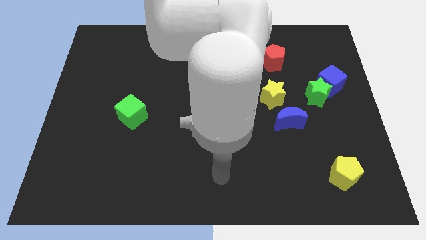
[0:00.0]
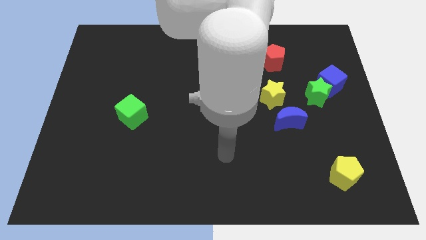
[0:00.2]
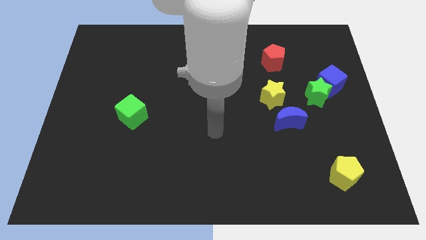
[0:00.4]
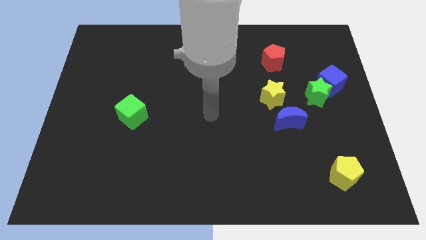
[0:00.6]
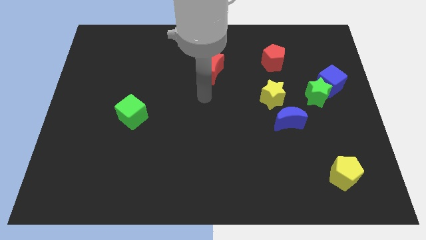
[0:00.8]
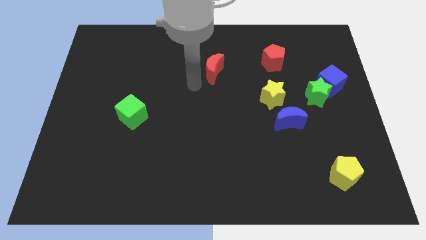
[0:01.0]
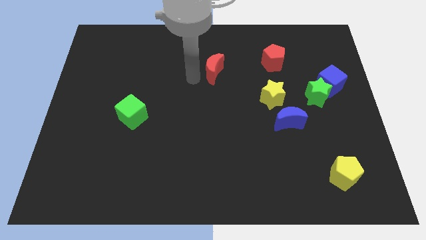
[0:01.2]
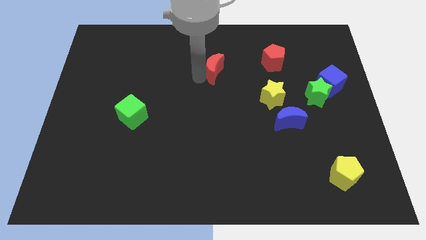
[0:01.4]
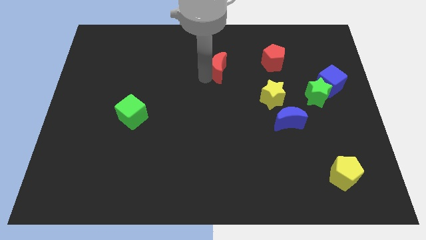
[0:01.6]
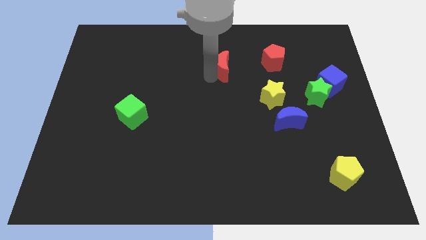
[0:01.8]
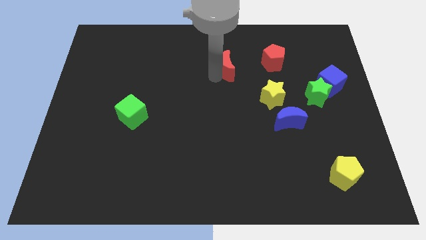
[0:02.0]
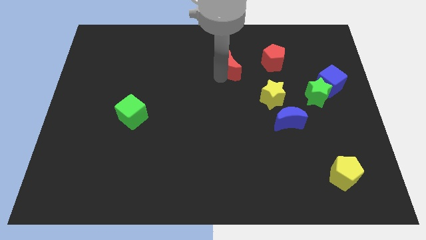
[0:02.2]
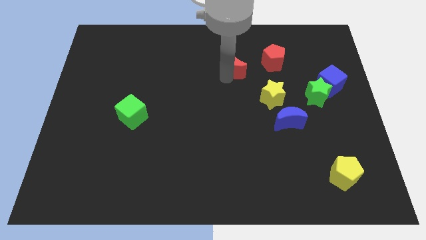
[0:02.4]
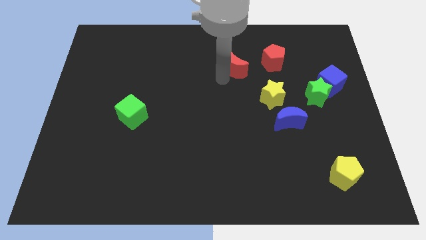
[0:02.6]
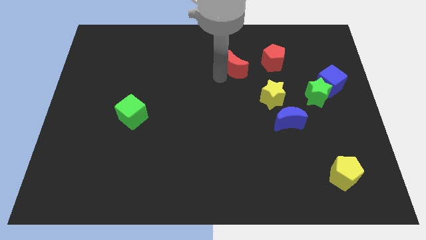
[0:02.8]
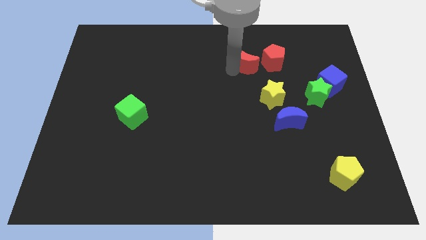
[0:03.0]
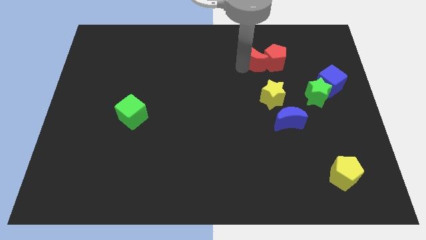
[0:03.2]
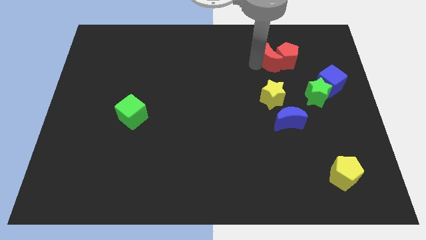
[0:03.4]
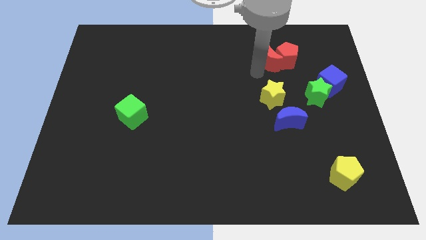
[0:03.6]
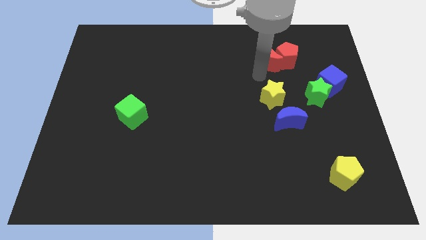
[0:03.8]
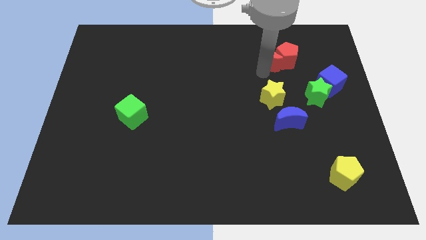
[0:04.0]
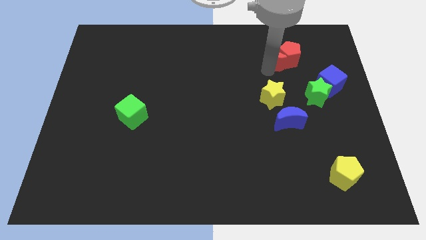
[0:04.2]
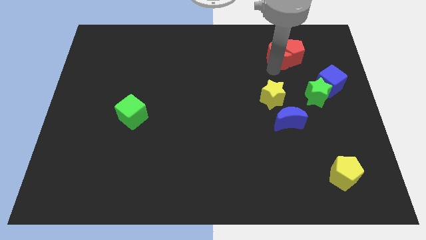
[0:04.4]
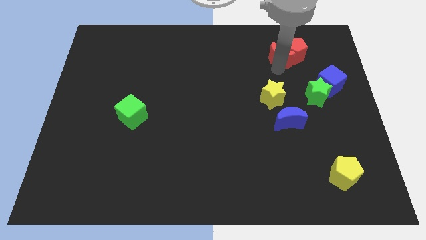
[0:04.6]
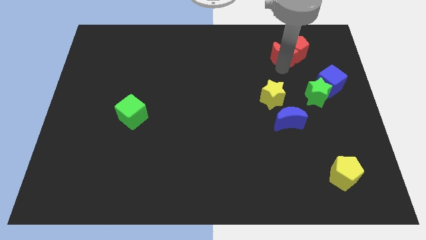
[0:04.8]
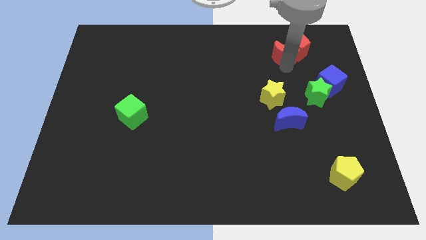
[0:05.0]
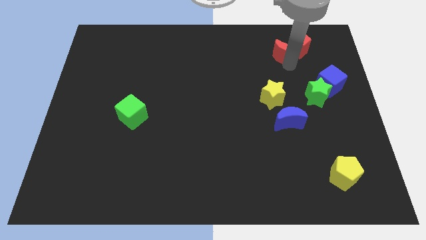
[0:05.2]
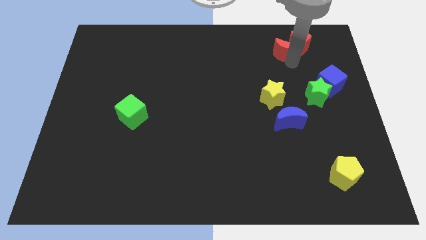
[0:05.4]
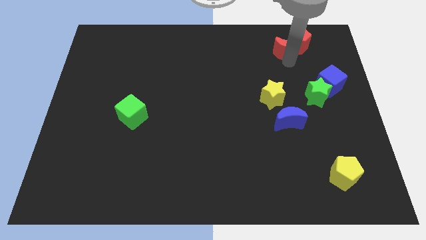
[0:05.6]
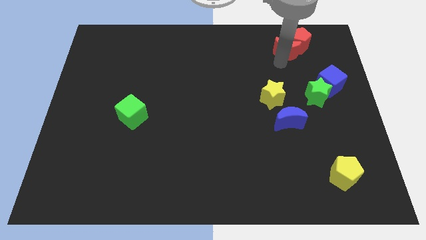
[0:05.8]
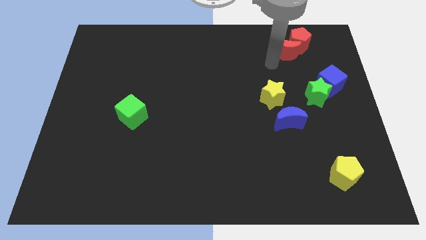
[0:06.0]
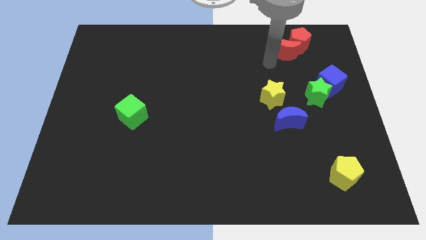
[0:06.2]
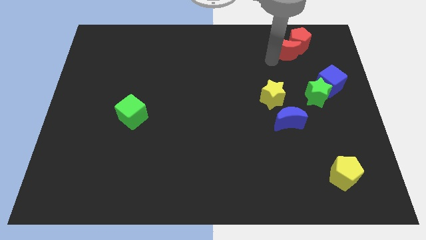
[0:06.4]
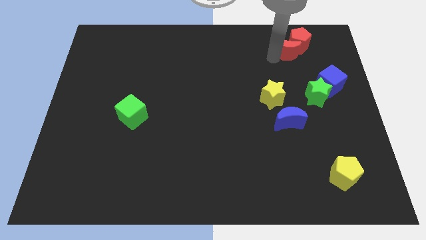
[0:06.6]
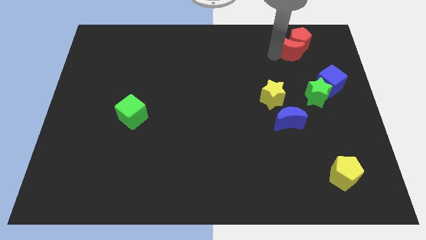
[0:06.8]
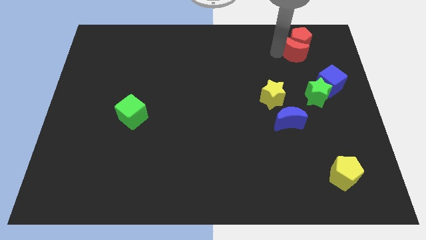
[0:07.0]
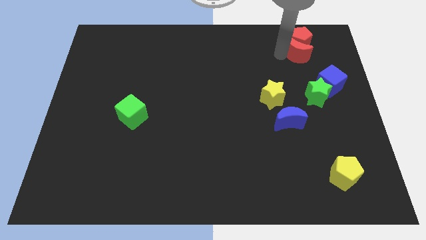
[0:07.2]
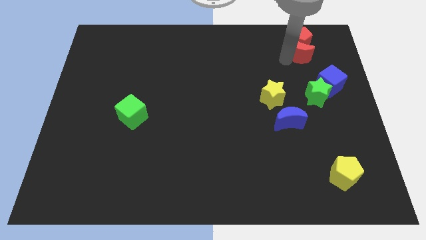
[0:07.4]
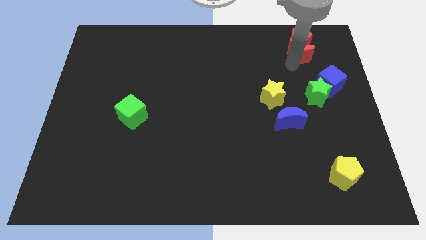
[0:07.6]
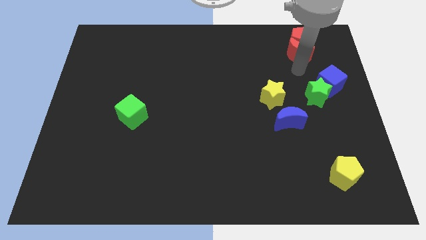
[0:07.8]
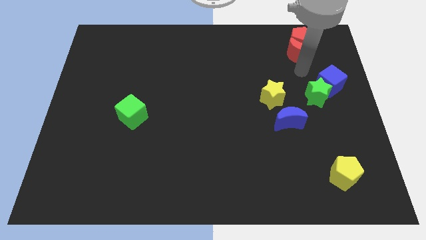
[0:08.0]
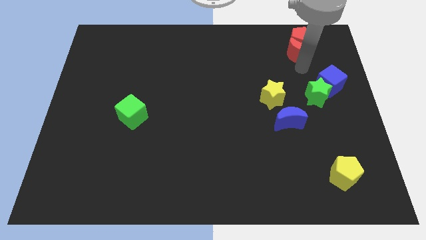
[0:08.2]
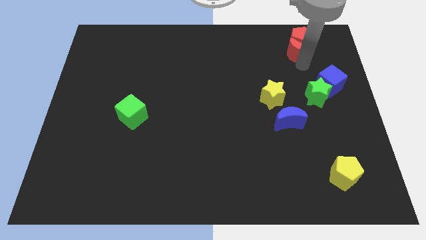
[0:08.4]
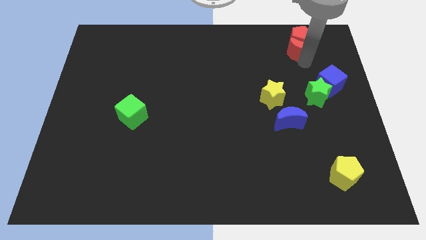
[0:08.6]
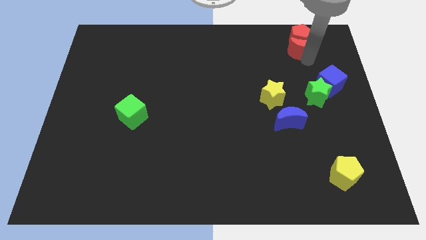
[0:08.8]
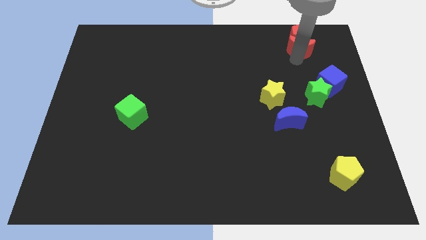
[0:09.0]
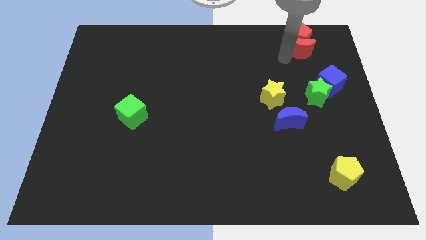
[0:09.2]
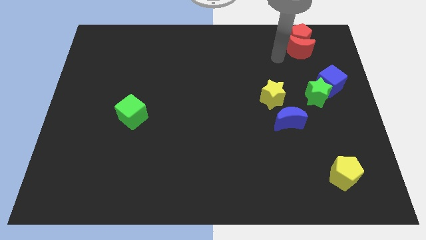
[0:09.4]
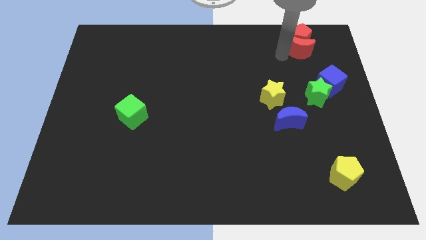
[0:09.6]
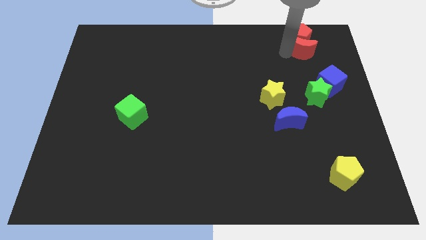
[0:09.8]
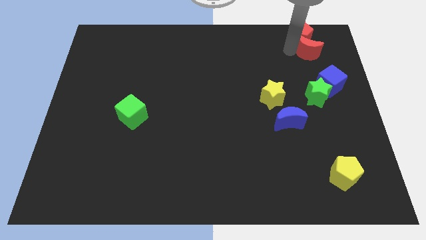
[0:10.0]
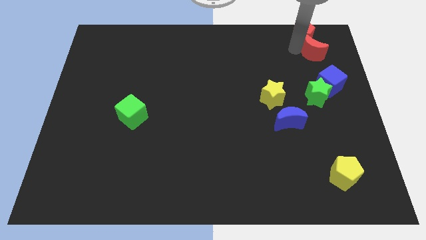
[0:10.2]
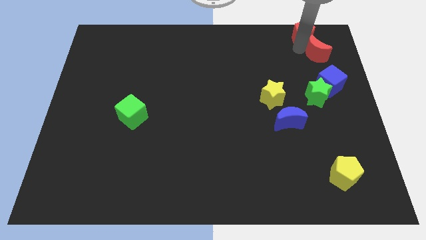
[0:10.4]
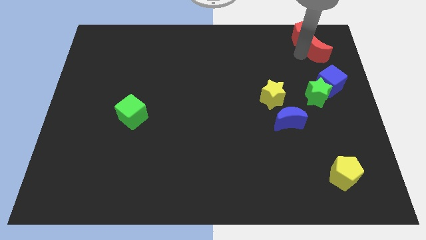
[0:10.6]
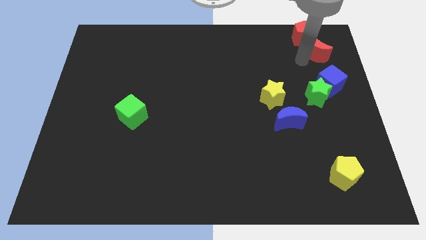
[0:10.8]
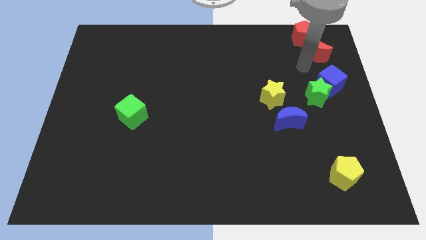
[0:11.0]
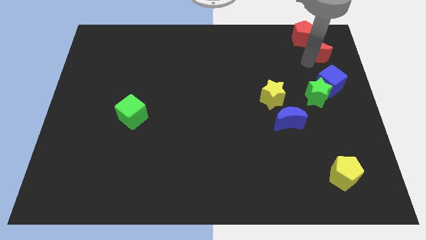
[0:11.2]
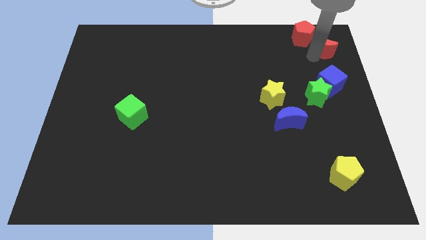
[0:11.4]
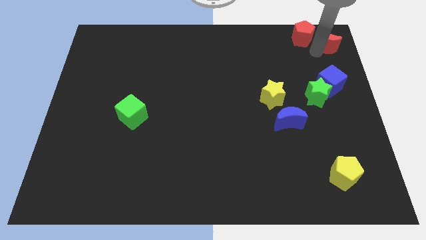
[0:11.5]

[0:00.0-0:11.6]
push the red moon to the top right of the board

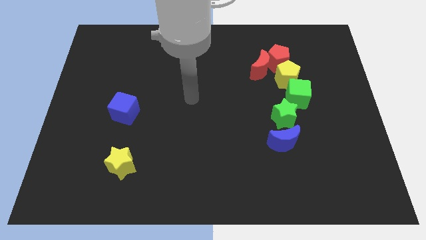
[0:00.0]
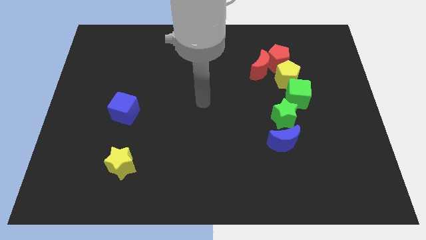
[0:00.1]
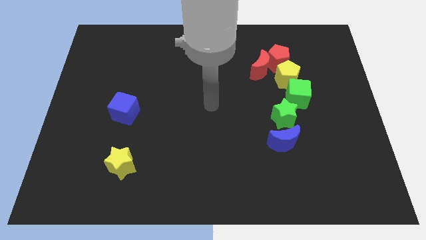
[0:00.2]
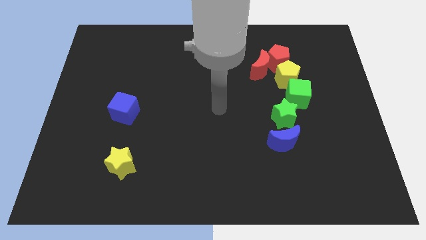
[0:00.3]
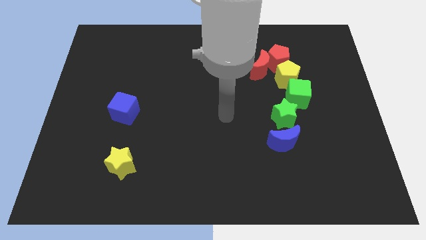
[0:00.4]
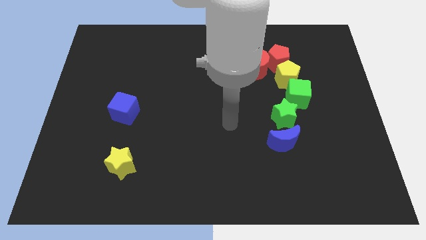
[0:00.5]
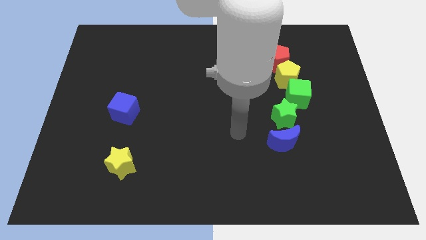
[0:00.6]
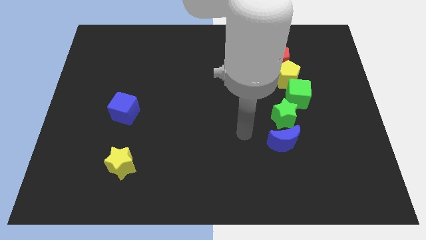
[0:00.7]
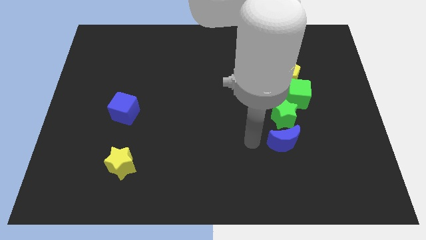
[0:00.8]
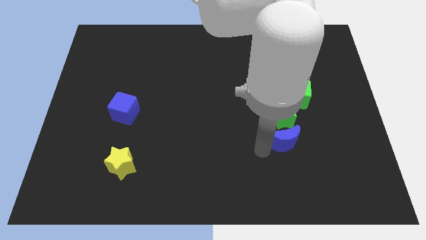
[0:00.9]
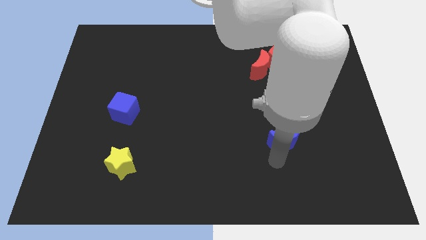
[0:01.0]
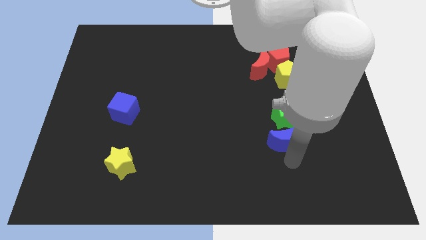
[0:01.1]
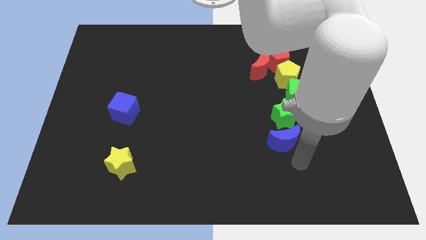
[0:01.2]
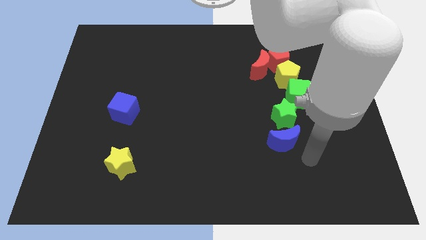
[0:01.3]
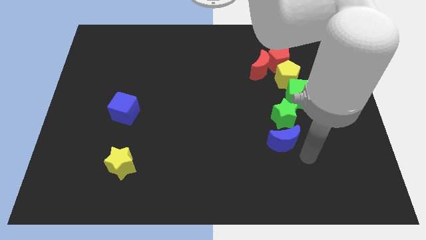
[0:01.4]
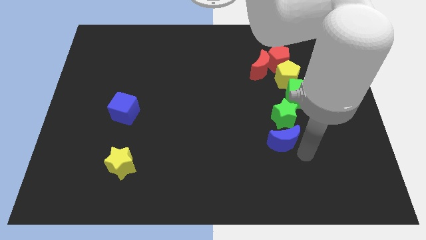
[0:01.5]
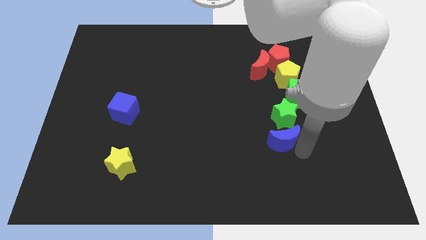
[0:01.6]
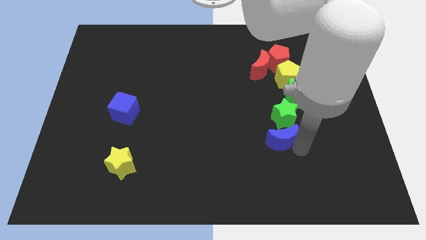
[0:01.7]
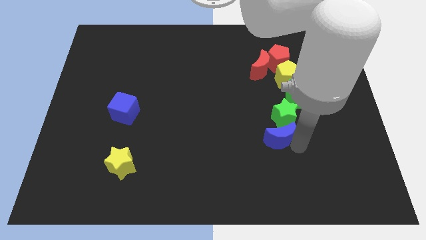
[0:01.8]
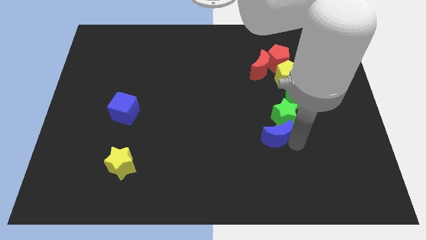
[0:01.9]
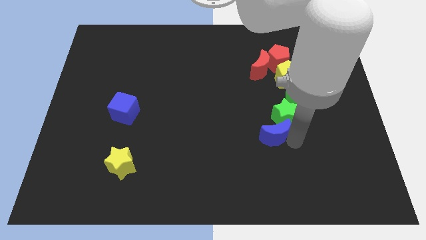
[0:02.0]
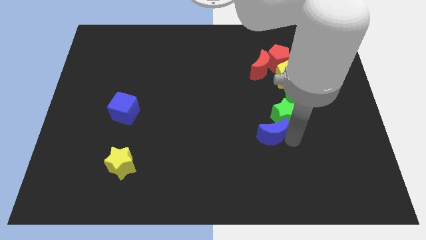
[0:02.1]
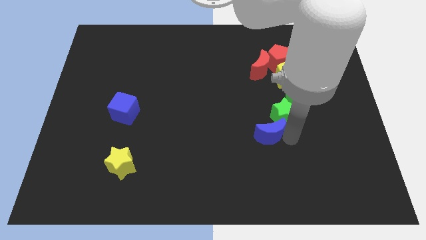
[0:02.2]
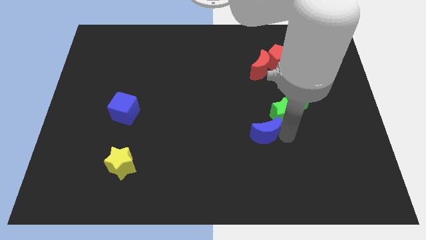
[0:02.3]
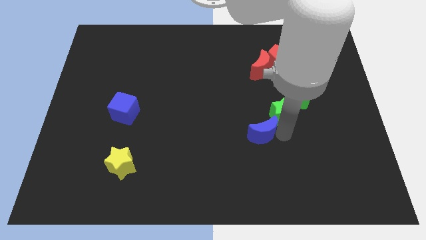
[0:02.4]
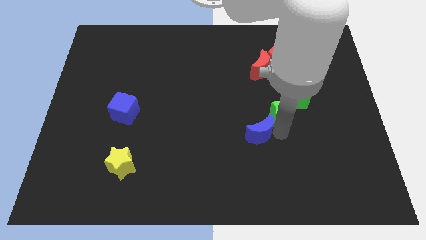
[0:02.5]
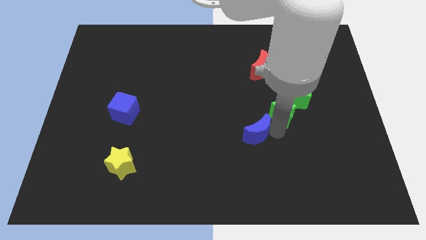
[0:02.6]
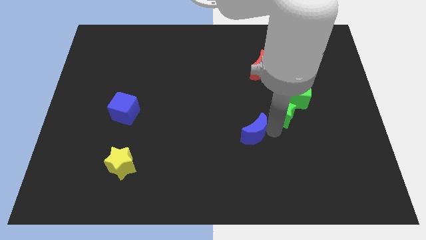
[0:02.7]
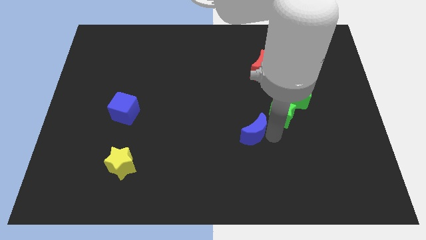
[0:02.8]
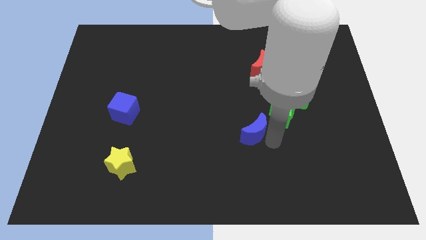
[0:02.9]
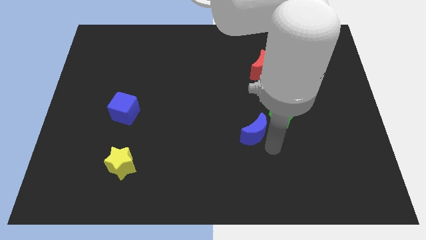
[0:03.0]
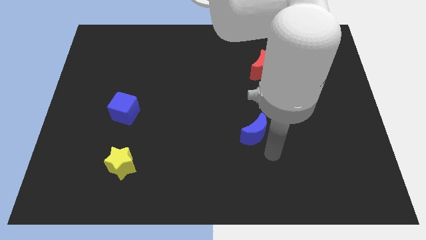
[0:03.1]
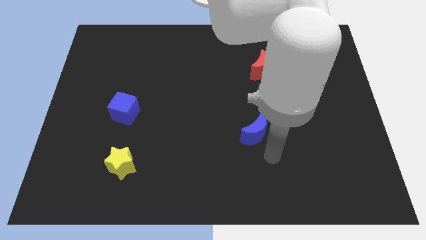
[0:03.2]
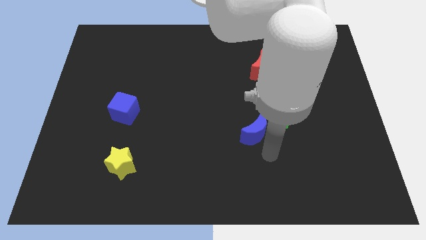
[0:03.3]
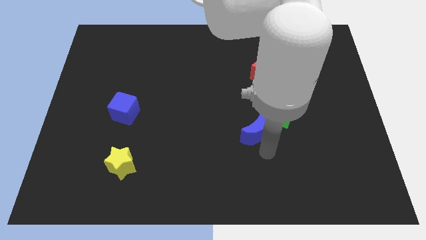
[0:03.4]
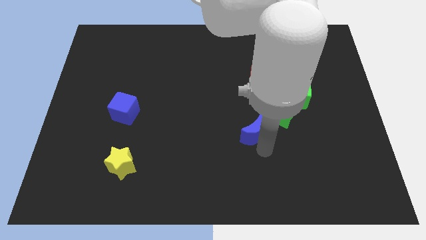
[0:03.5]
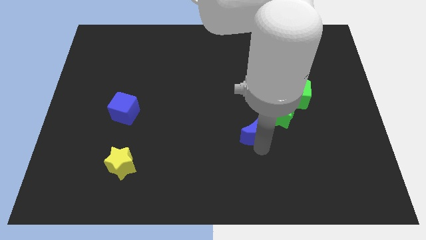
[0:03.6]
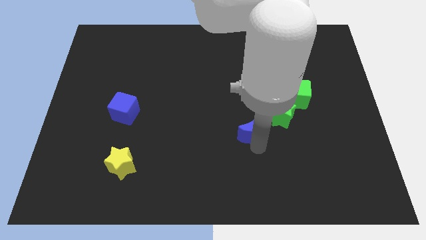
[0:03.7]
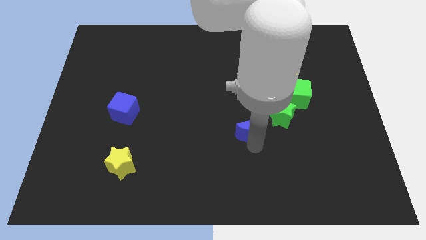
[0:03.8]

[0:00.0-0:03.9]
put the blue moon to the center
